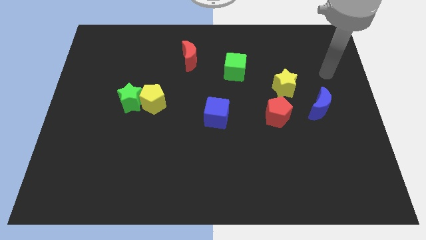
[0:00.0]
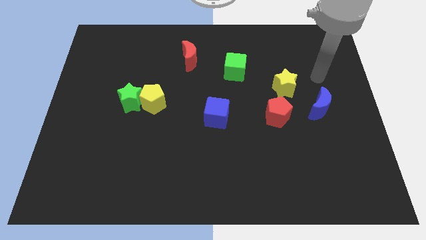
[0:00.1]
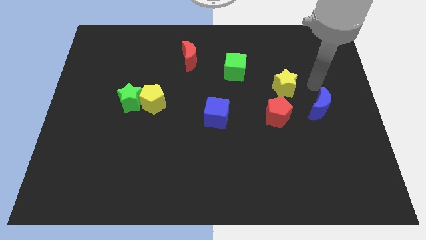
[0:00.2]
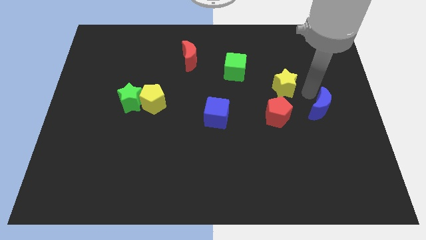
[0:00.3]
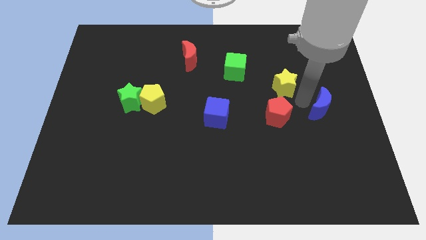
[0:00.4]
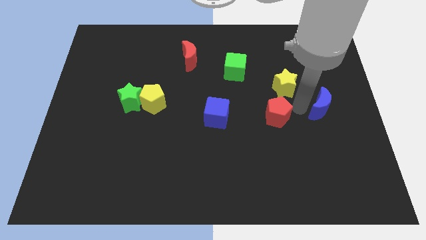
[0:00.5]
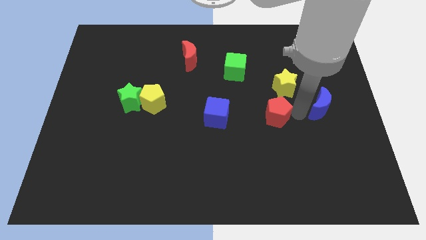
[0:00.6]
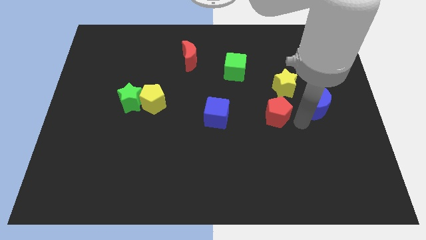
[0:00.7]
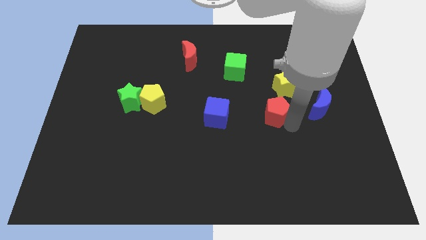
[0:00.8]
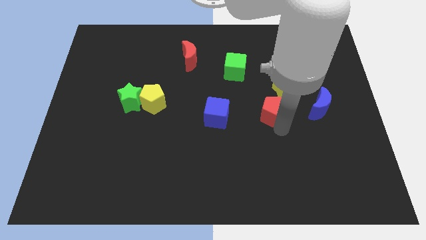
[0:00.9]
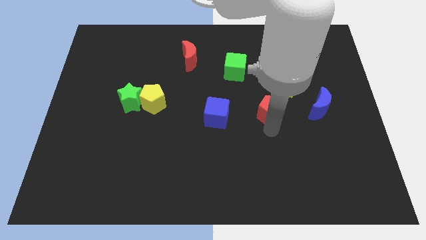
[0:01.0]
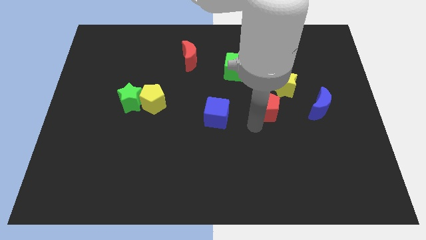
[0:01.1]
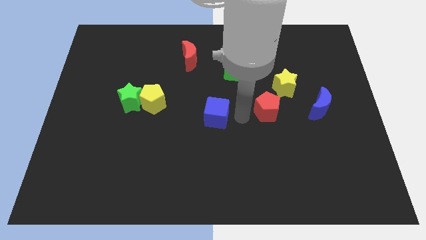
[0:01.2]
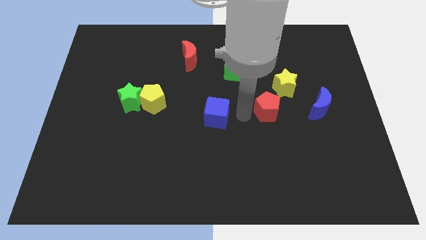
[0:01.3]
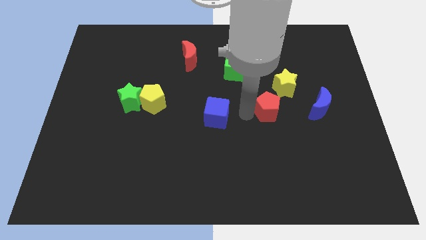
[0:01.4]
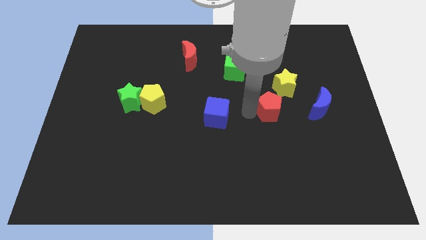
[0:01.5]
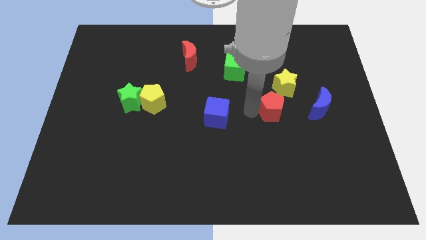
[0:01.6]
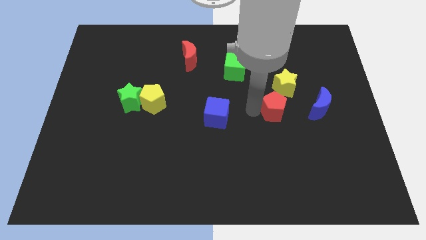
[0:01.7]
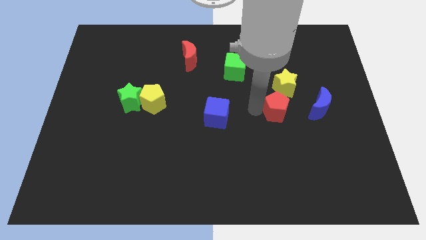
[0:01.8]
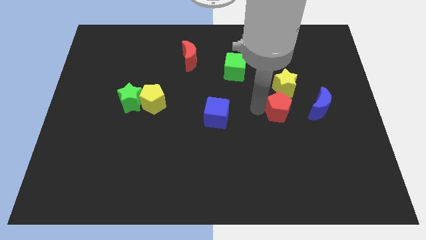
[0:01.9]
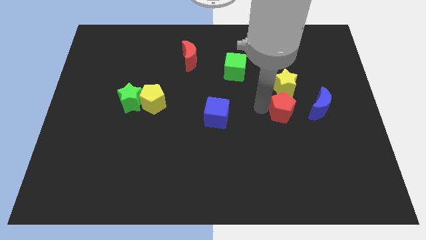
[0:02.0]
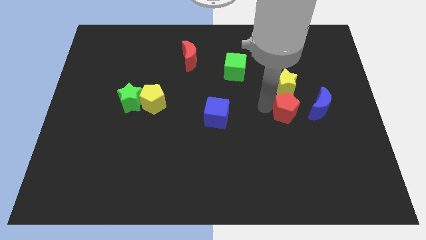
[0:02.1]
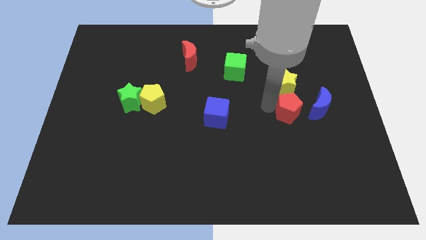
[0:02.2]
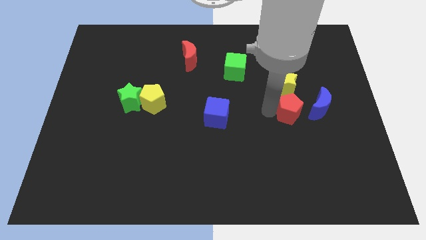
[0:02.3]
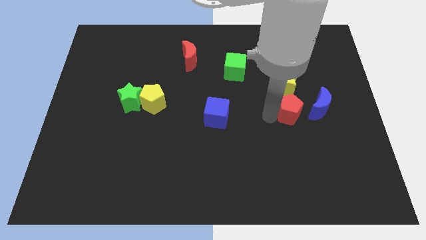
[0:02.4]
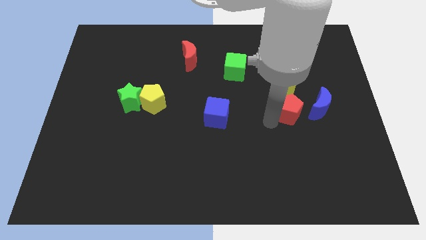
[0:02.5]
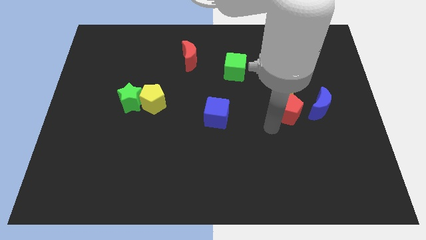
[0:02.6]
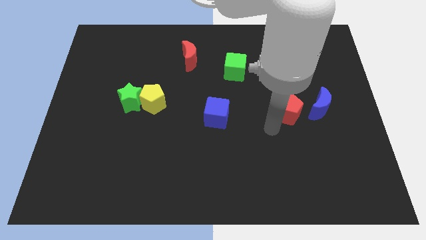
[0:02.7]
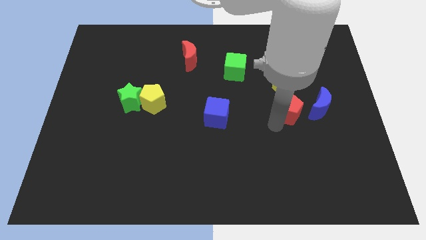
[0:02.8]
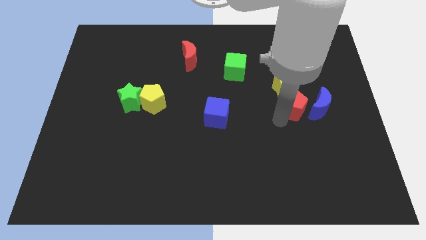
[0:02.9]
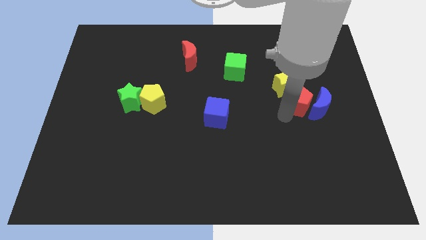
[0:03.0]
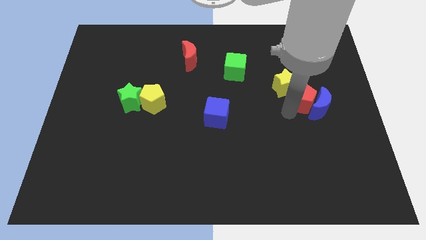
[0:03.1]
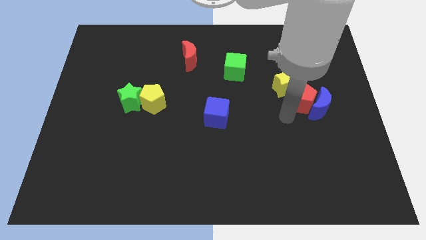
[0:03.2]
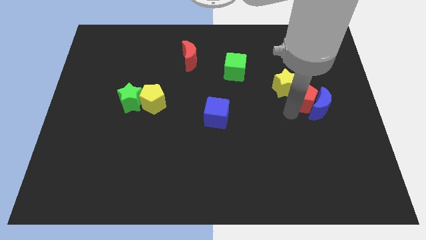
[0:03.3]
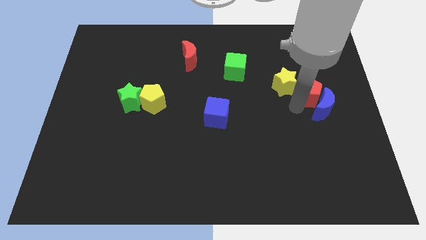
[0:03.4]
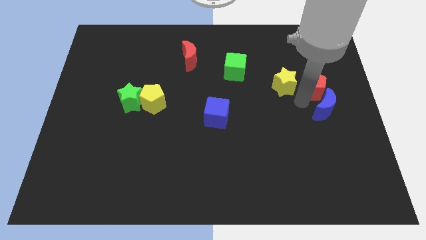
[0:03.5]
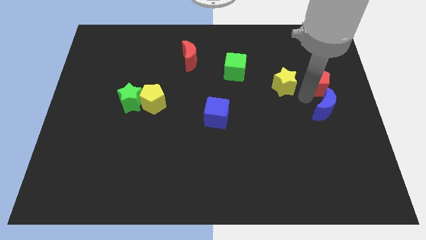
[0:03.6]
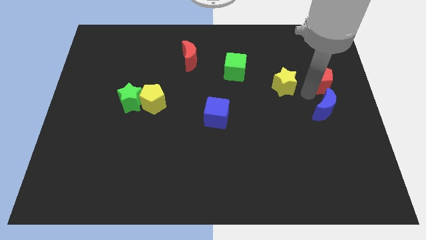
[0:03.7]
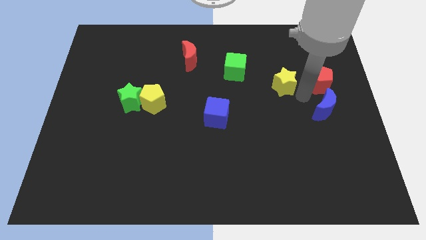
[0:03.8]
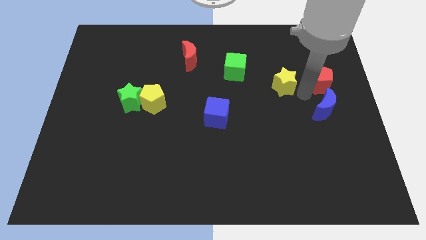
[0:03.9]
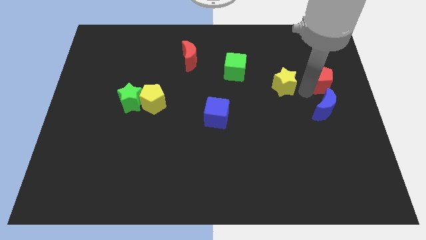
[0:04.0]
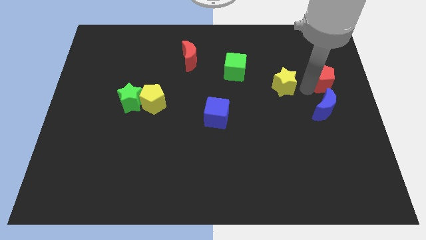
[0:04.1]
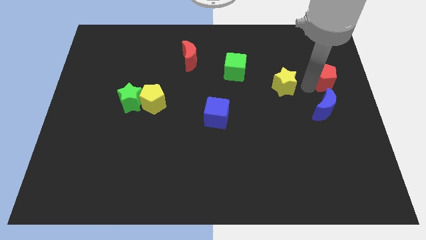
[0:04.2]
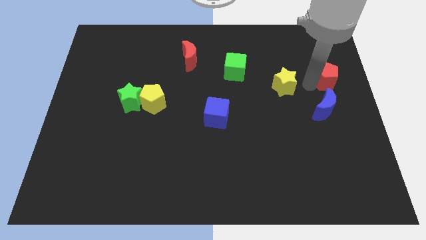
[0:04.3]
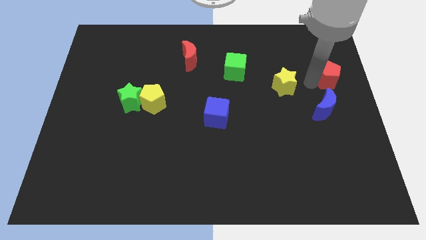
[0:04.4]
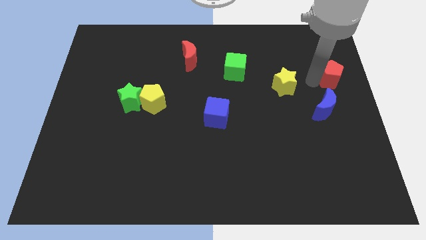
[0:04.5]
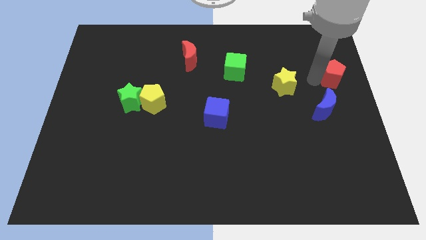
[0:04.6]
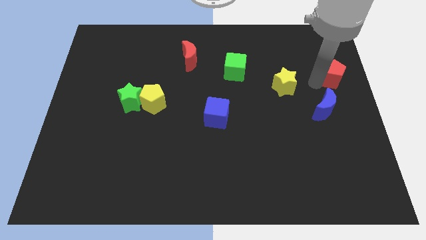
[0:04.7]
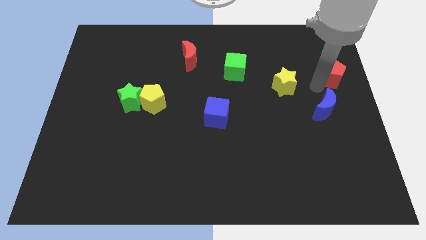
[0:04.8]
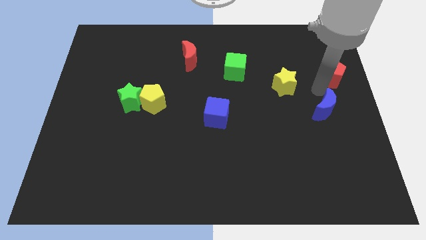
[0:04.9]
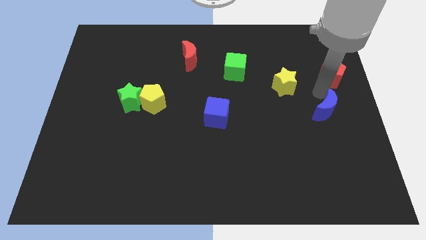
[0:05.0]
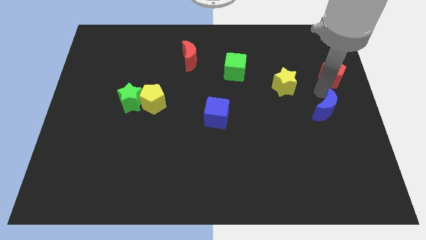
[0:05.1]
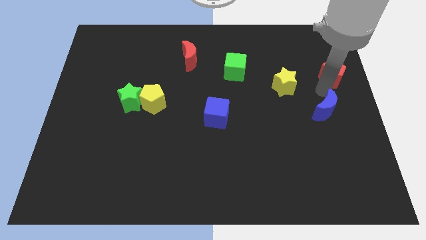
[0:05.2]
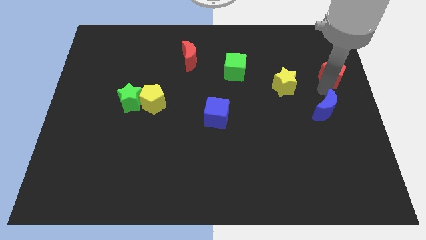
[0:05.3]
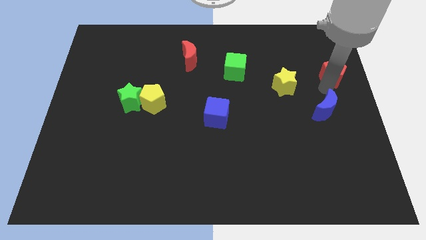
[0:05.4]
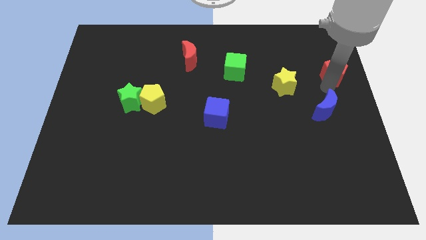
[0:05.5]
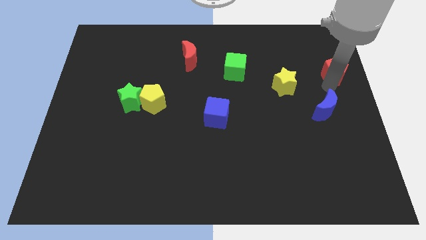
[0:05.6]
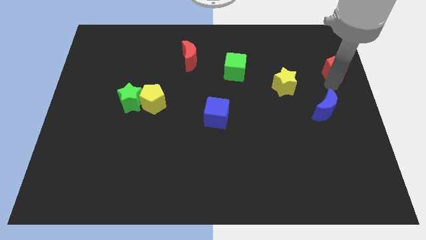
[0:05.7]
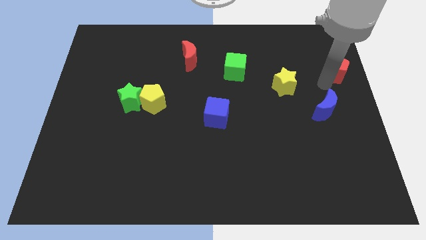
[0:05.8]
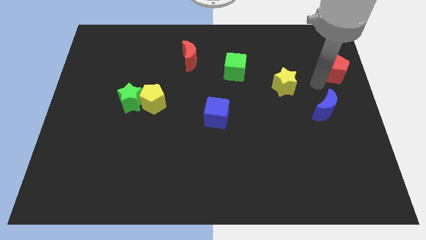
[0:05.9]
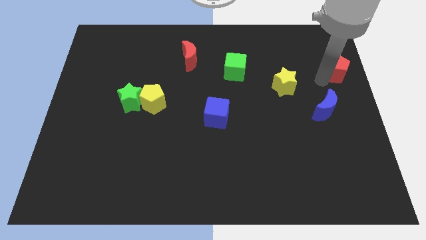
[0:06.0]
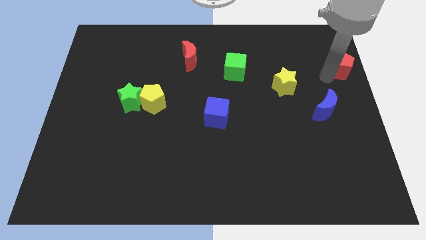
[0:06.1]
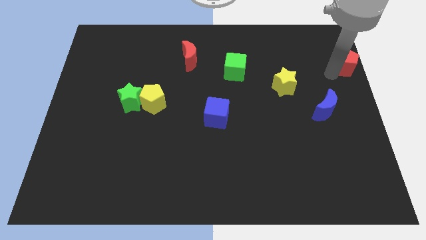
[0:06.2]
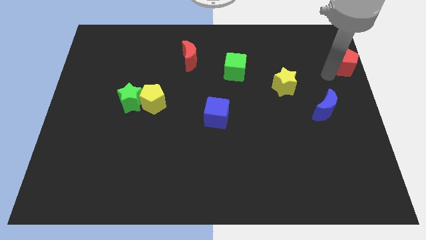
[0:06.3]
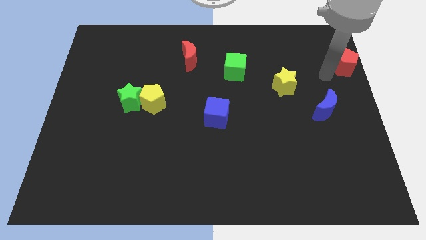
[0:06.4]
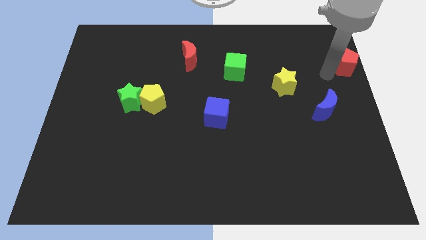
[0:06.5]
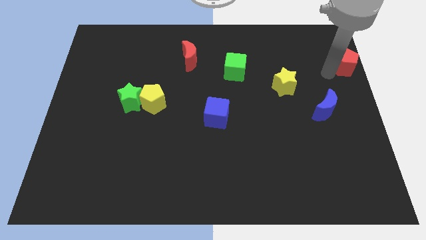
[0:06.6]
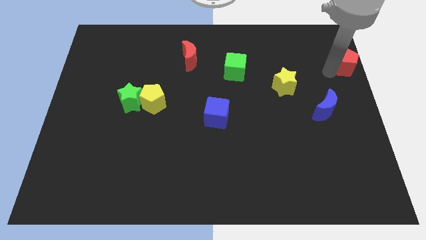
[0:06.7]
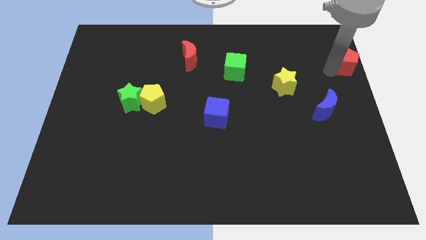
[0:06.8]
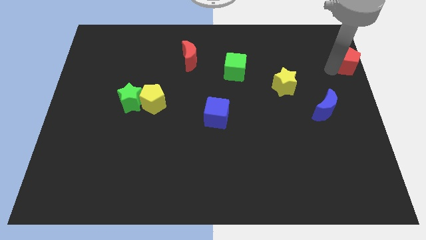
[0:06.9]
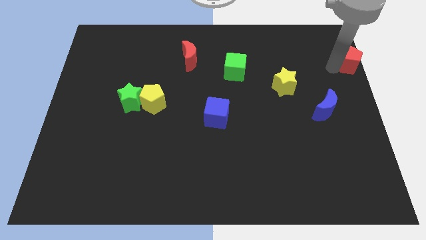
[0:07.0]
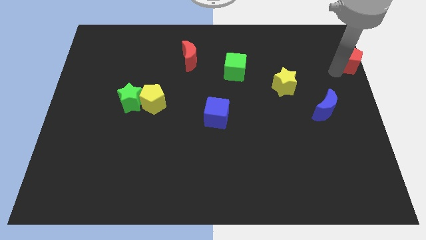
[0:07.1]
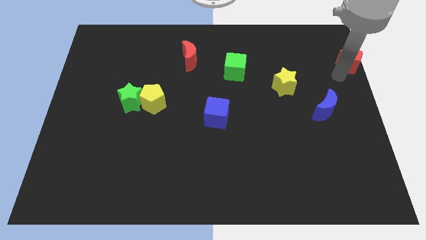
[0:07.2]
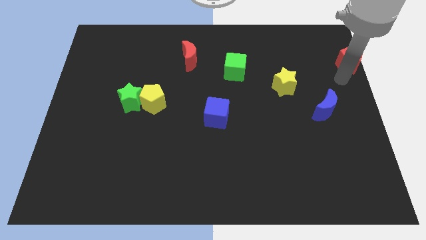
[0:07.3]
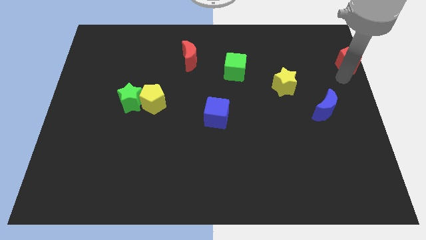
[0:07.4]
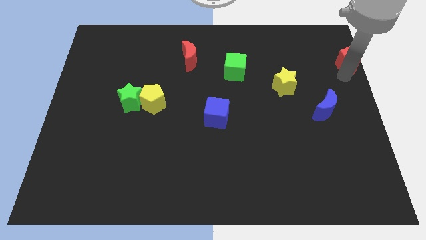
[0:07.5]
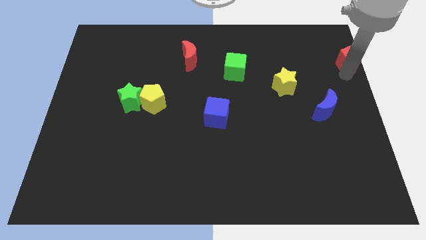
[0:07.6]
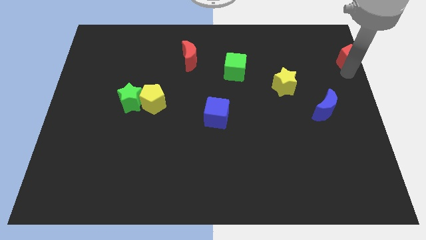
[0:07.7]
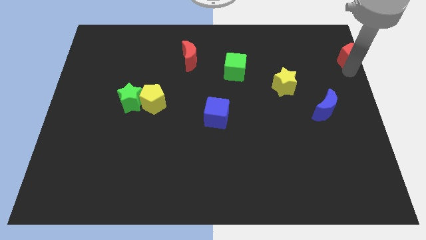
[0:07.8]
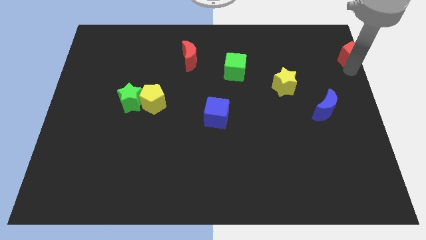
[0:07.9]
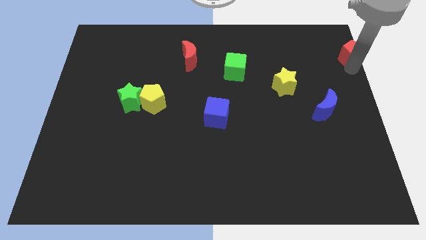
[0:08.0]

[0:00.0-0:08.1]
move the red pentagon to the top right of the board

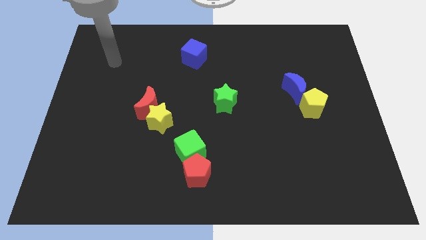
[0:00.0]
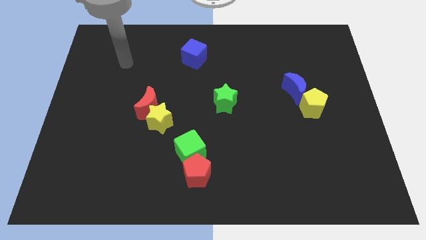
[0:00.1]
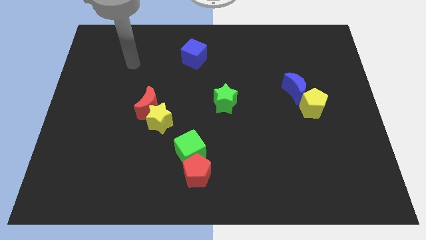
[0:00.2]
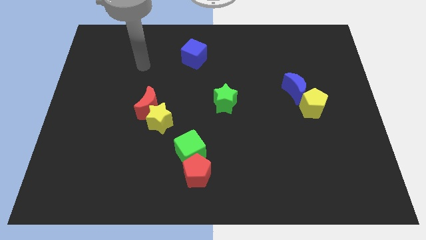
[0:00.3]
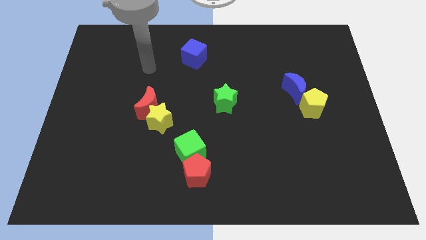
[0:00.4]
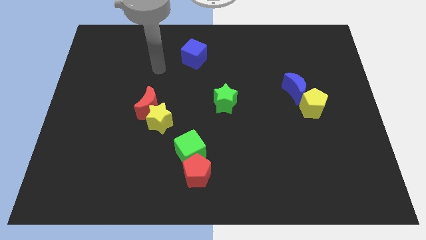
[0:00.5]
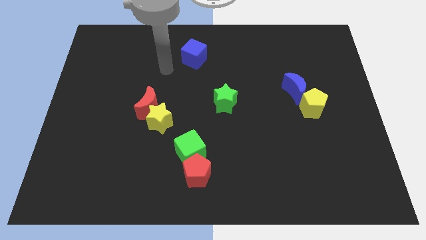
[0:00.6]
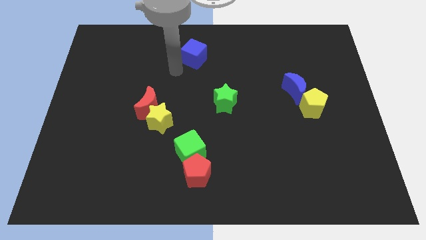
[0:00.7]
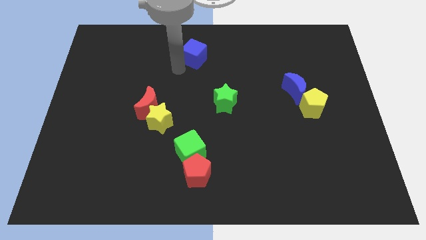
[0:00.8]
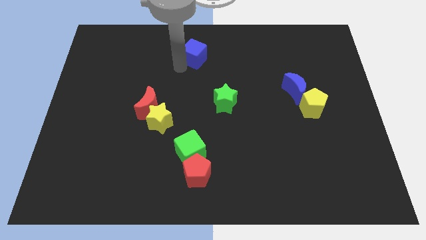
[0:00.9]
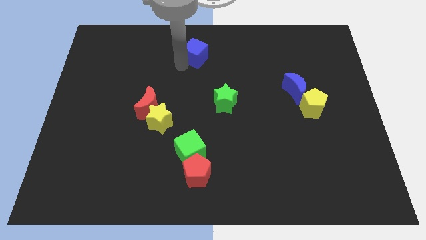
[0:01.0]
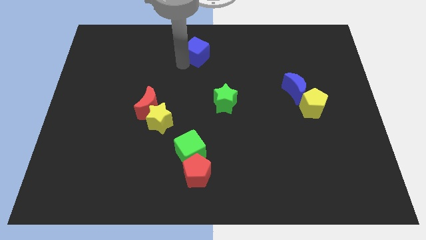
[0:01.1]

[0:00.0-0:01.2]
push the blue cube to the top side
